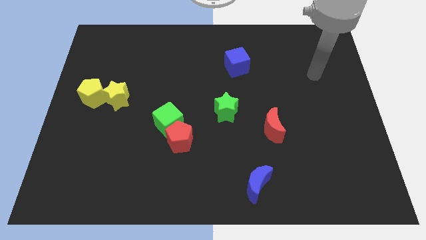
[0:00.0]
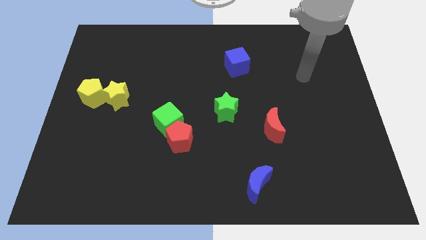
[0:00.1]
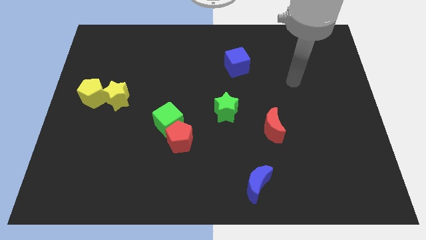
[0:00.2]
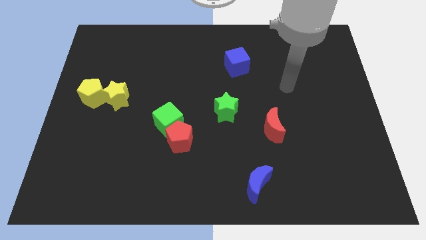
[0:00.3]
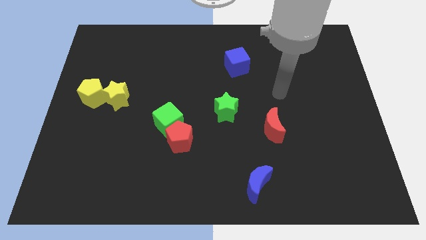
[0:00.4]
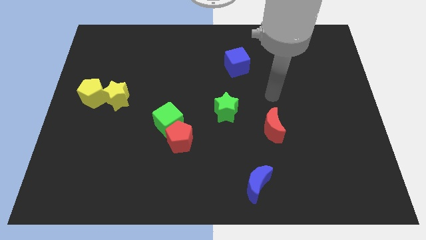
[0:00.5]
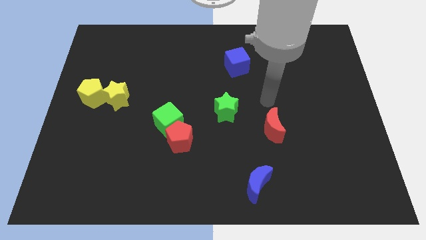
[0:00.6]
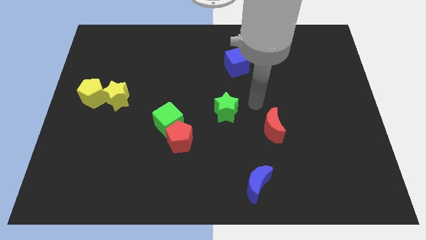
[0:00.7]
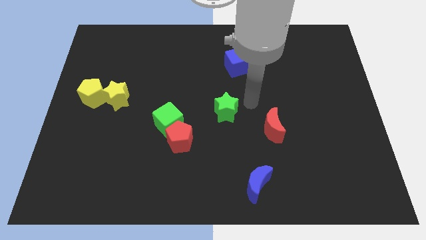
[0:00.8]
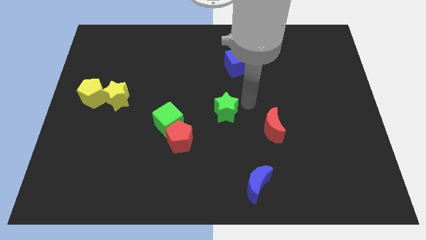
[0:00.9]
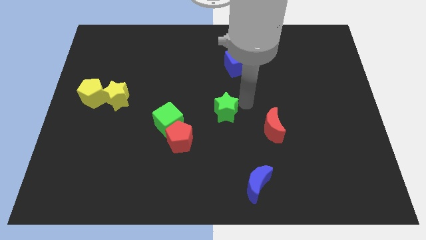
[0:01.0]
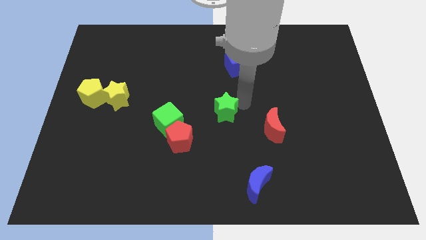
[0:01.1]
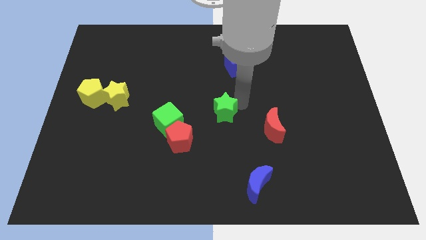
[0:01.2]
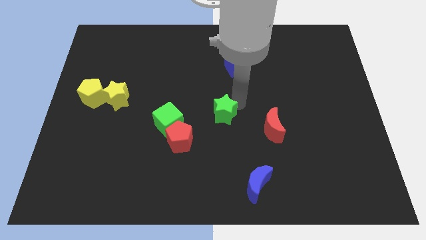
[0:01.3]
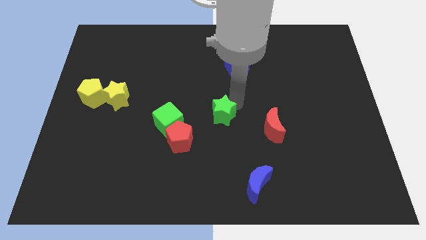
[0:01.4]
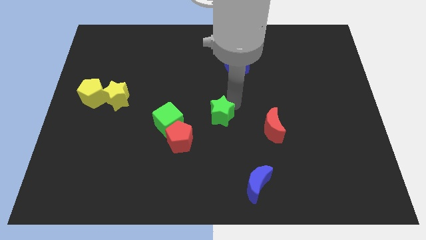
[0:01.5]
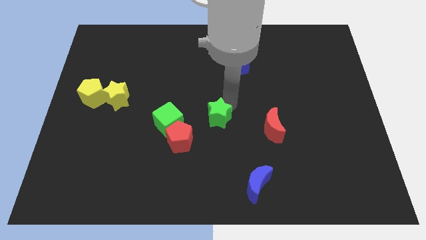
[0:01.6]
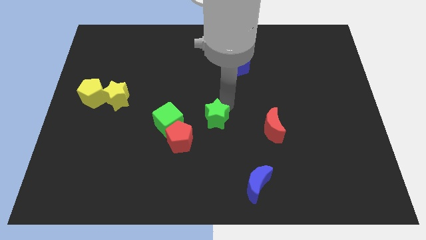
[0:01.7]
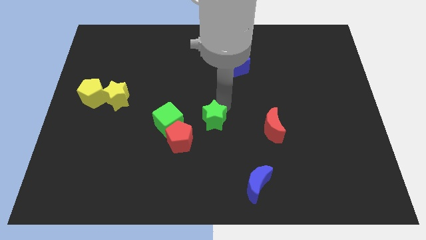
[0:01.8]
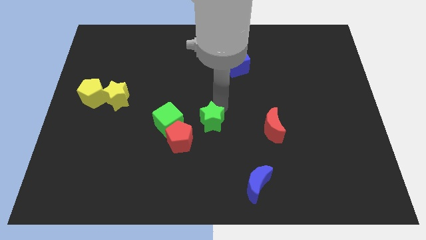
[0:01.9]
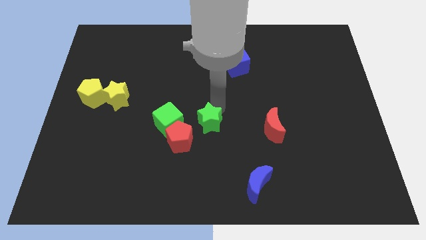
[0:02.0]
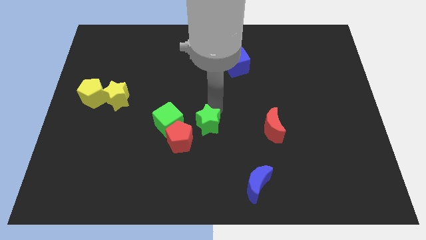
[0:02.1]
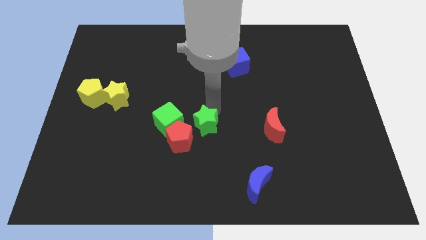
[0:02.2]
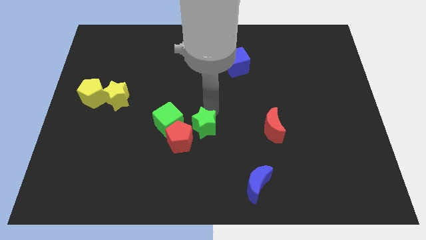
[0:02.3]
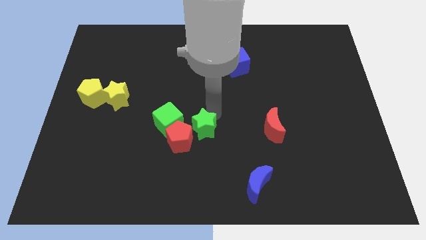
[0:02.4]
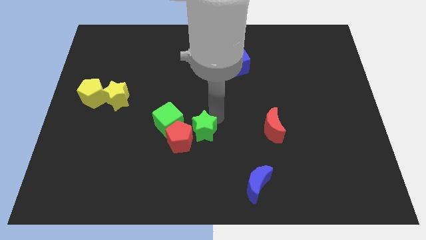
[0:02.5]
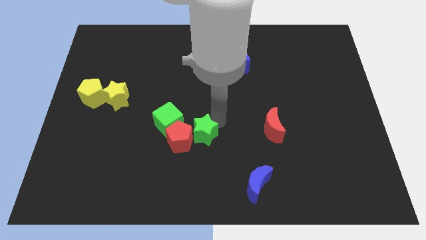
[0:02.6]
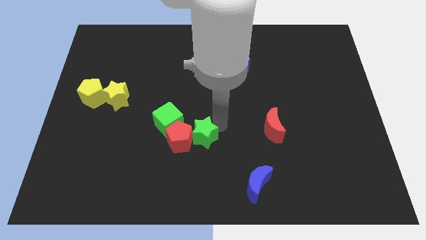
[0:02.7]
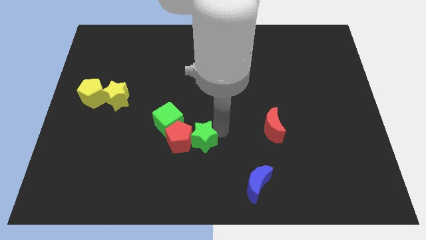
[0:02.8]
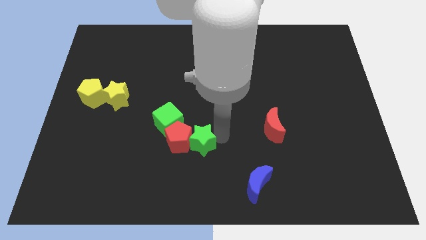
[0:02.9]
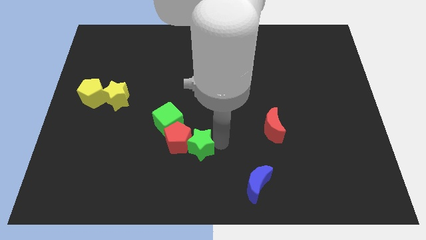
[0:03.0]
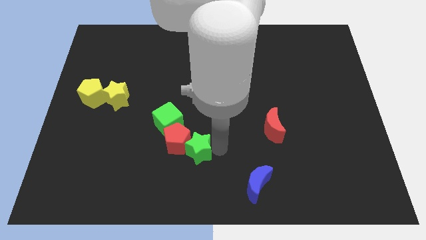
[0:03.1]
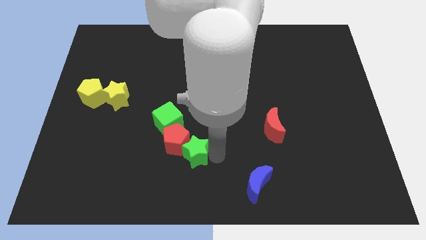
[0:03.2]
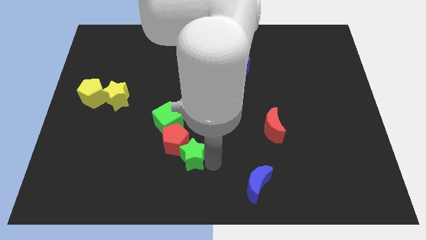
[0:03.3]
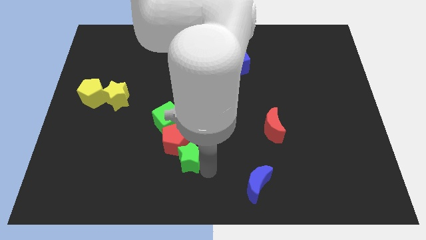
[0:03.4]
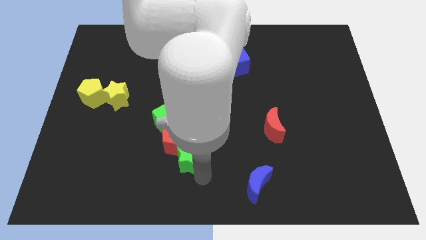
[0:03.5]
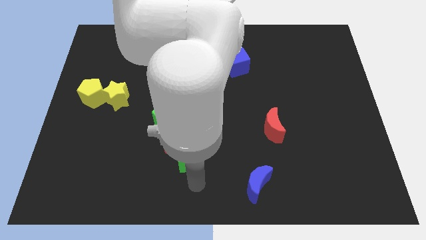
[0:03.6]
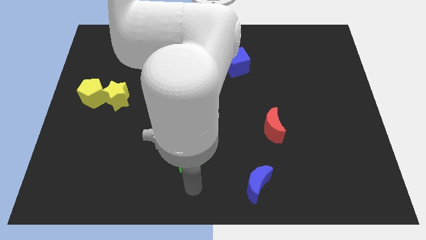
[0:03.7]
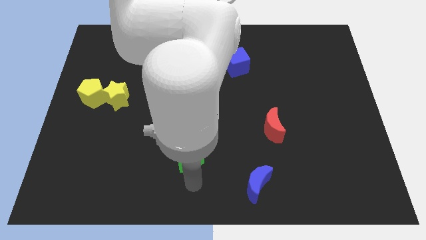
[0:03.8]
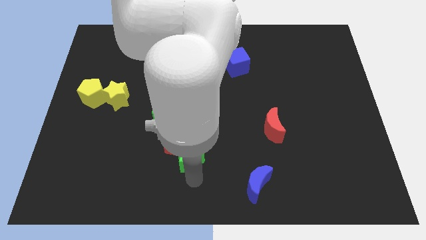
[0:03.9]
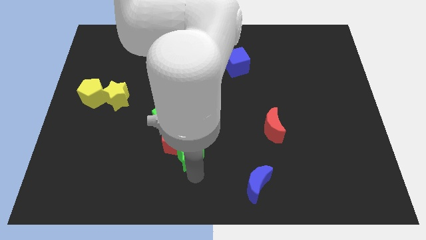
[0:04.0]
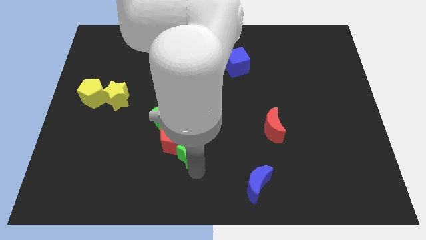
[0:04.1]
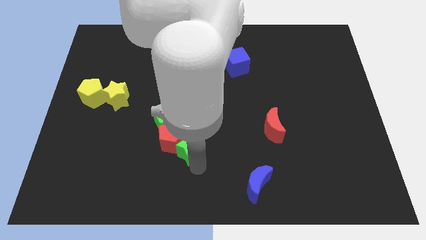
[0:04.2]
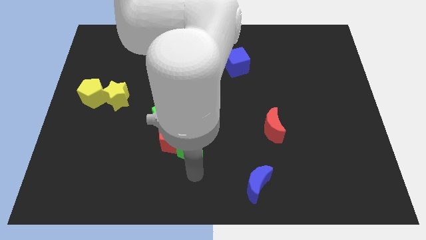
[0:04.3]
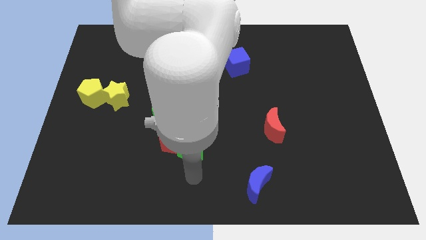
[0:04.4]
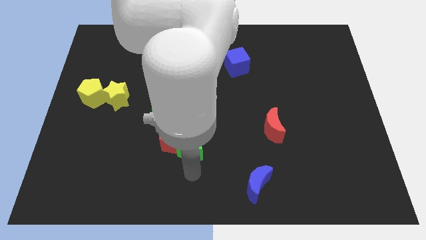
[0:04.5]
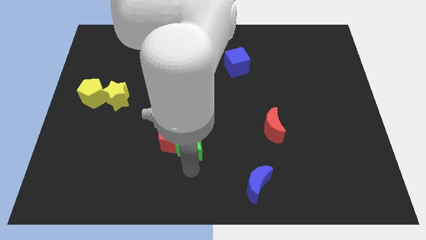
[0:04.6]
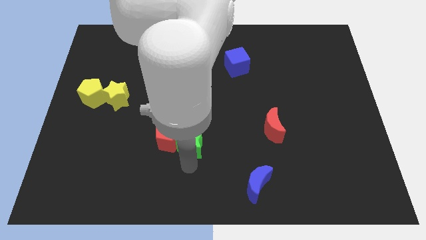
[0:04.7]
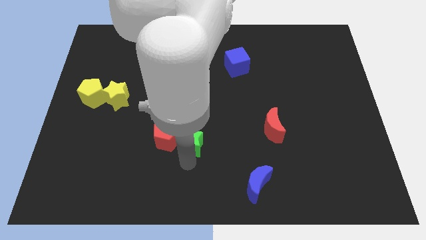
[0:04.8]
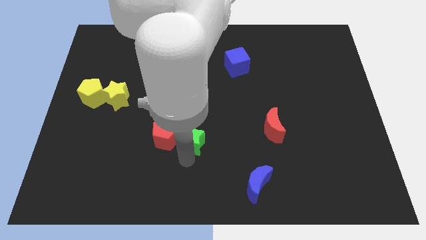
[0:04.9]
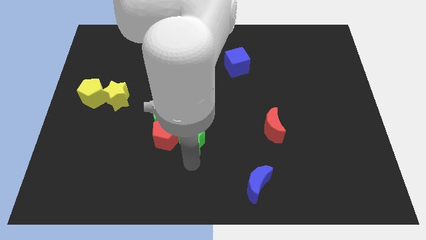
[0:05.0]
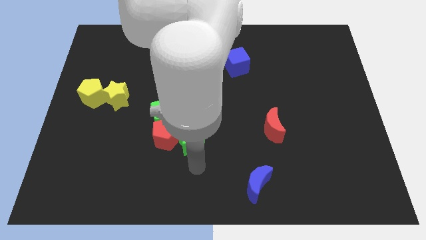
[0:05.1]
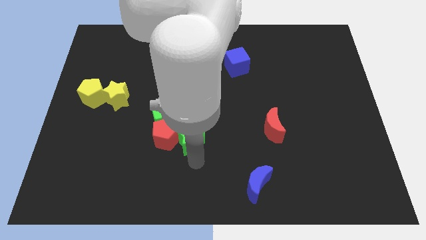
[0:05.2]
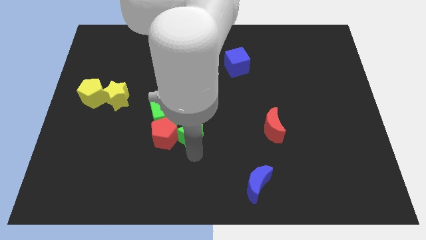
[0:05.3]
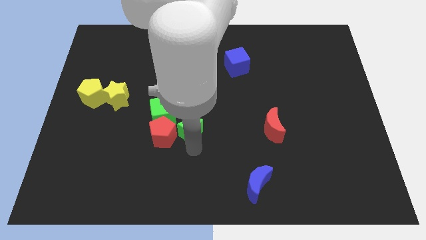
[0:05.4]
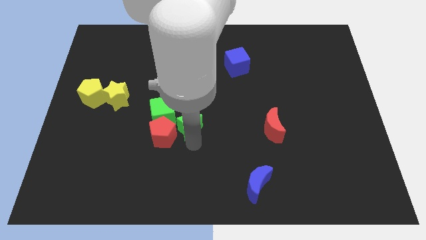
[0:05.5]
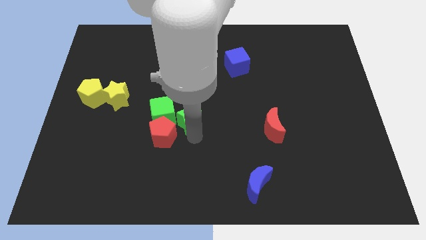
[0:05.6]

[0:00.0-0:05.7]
push the green star to the green cube

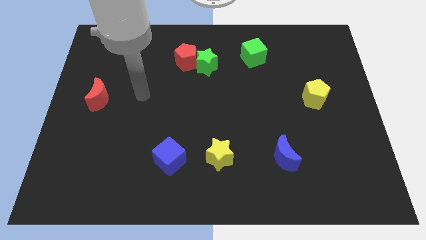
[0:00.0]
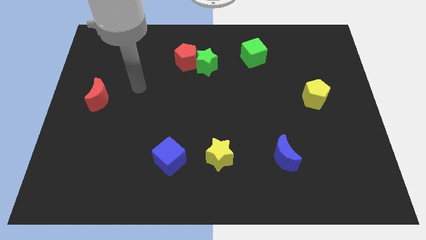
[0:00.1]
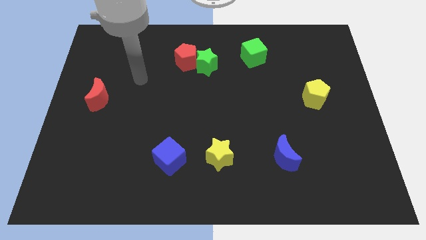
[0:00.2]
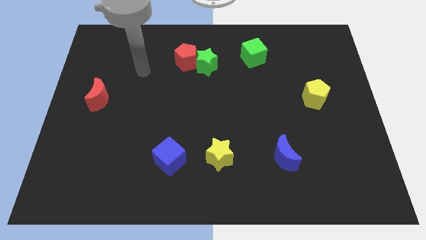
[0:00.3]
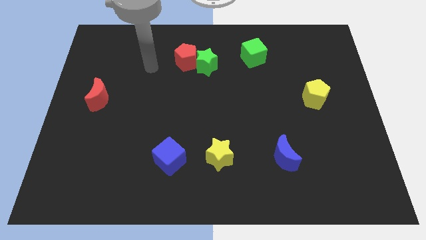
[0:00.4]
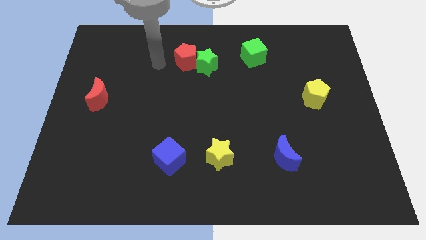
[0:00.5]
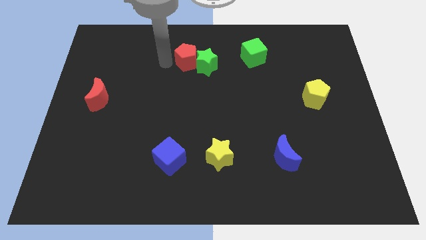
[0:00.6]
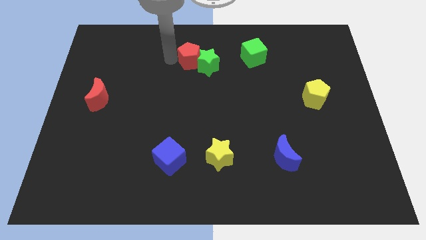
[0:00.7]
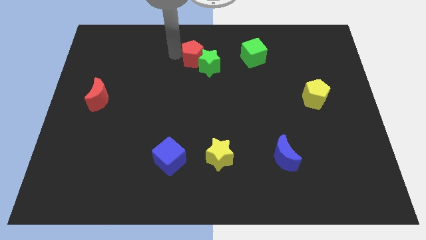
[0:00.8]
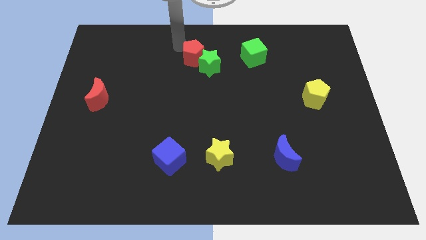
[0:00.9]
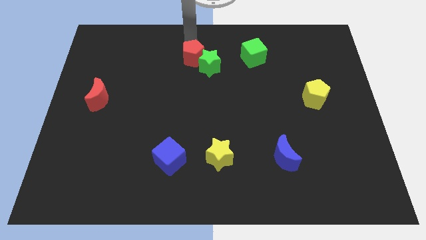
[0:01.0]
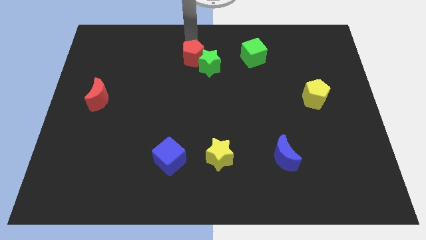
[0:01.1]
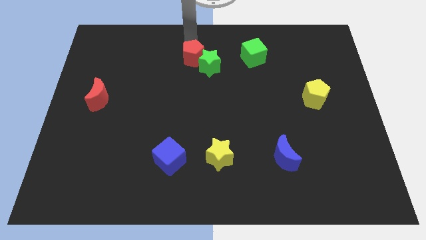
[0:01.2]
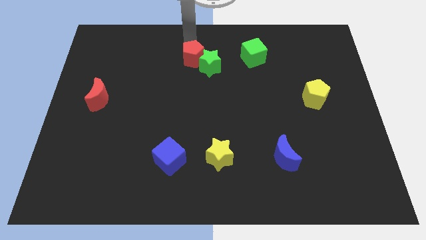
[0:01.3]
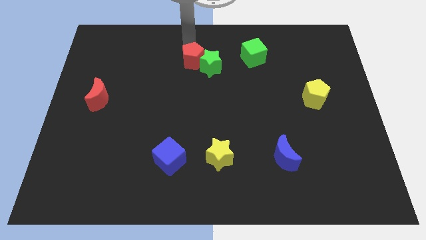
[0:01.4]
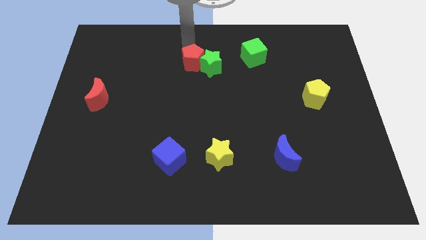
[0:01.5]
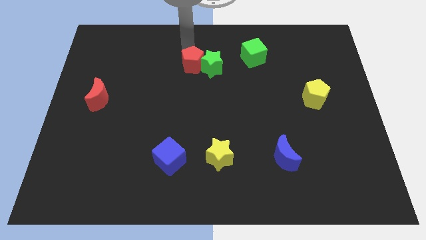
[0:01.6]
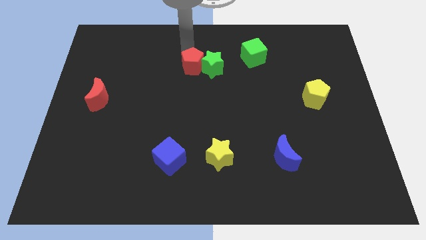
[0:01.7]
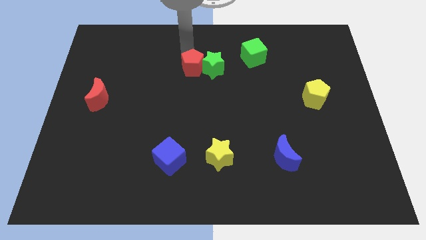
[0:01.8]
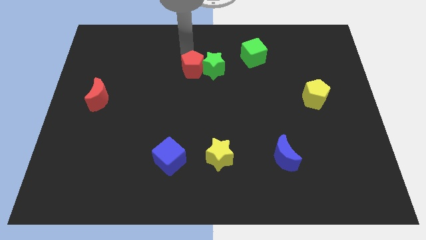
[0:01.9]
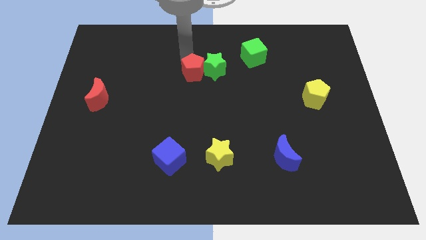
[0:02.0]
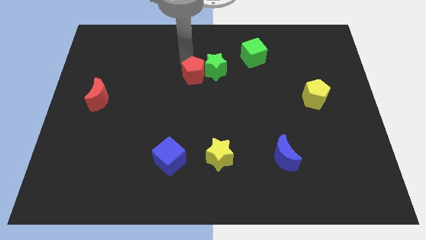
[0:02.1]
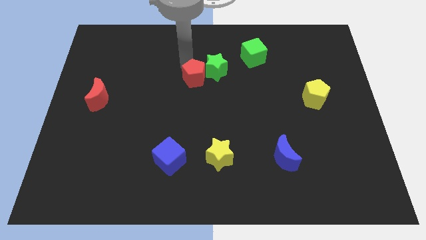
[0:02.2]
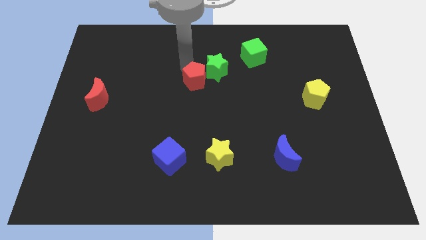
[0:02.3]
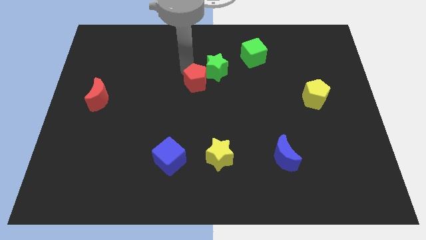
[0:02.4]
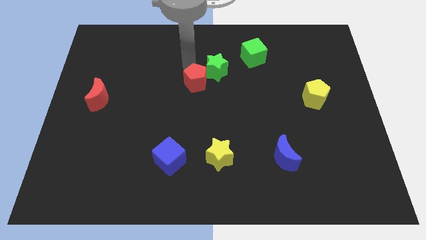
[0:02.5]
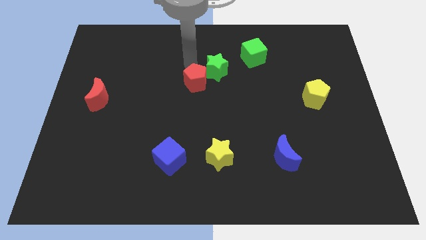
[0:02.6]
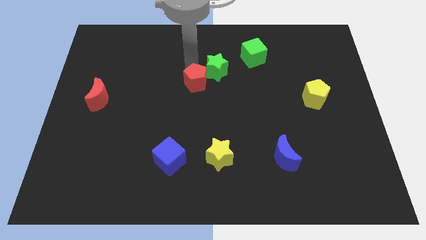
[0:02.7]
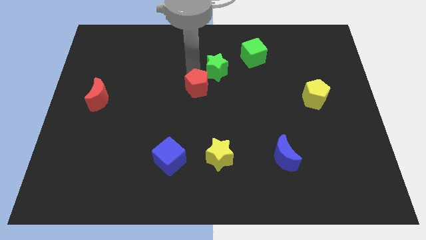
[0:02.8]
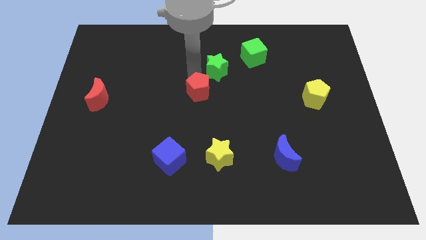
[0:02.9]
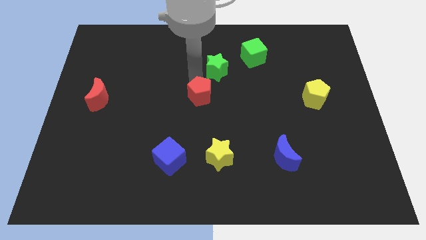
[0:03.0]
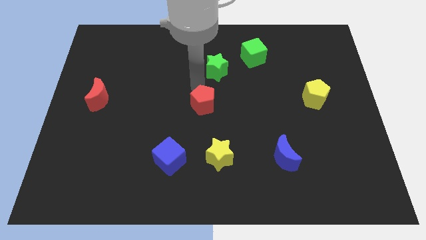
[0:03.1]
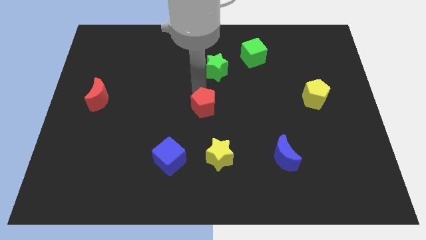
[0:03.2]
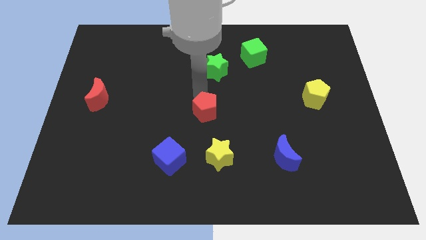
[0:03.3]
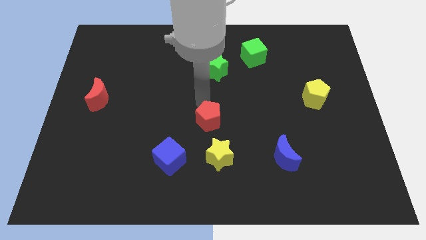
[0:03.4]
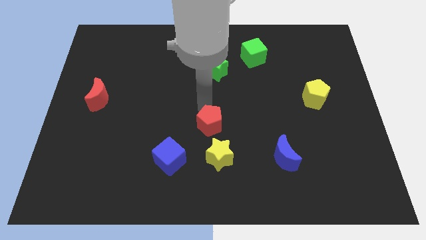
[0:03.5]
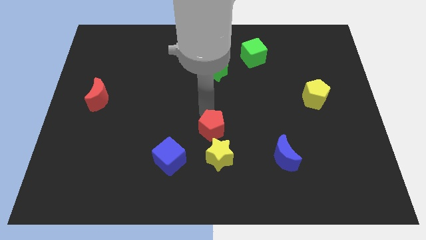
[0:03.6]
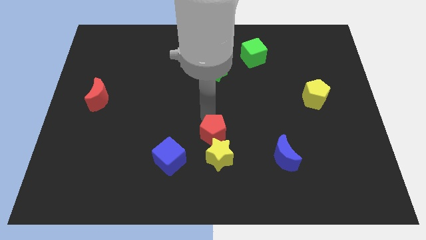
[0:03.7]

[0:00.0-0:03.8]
move the red pentagon to the yellow star
